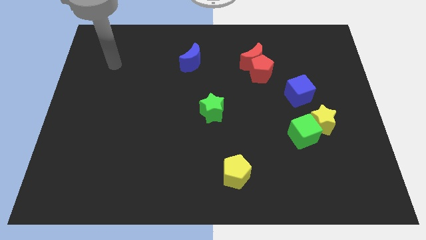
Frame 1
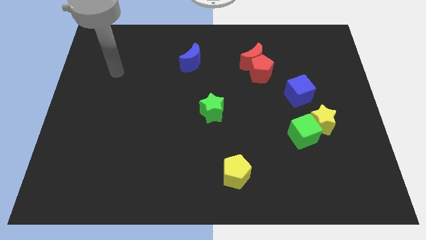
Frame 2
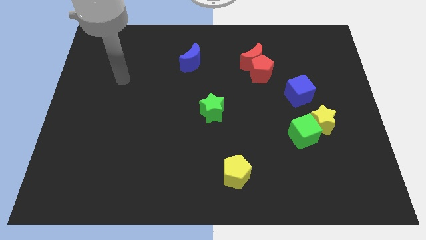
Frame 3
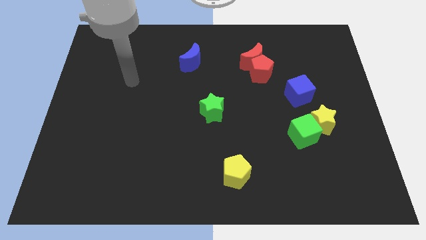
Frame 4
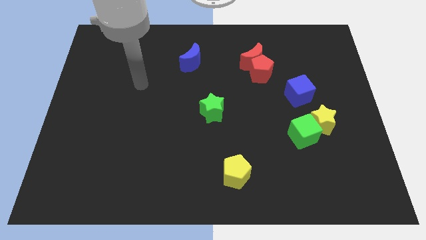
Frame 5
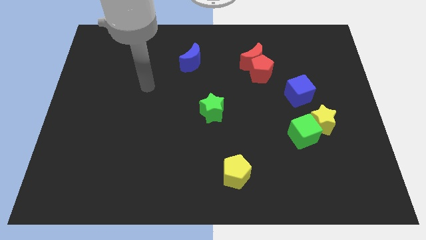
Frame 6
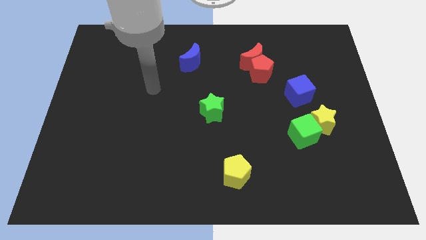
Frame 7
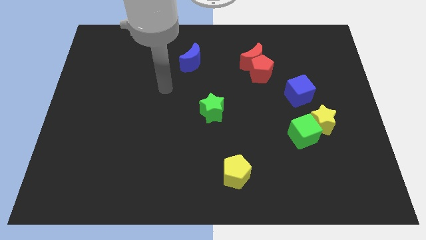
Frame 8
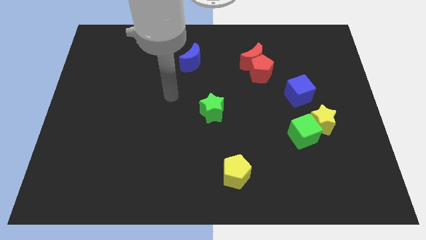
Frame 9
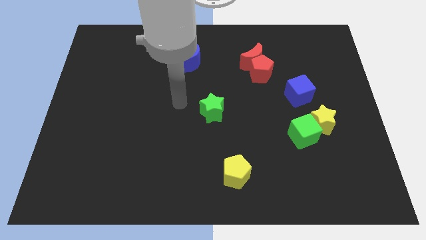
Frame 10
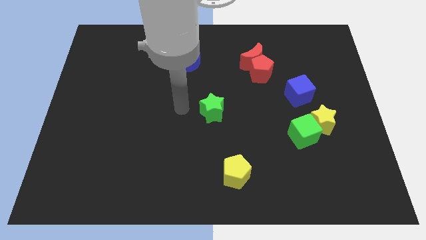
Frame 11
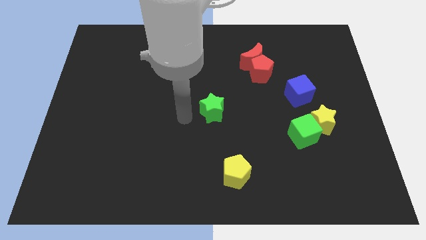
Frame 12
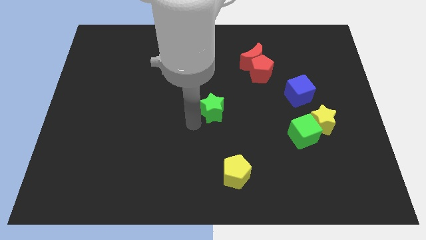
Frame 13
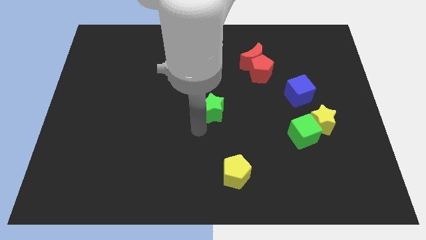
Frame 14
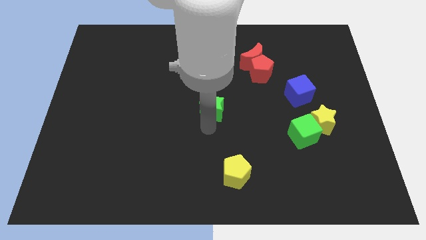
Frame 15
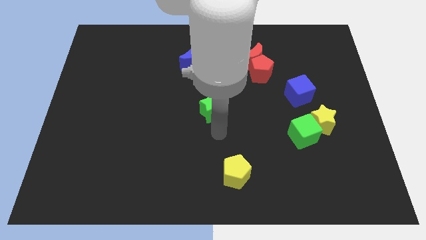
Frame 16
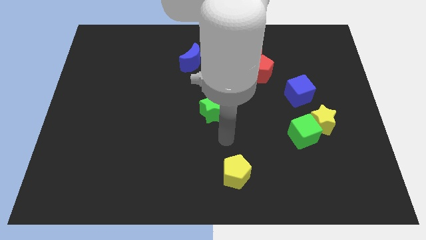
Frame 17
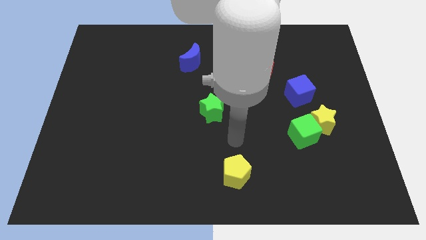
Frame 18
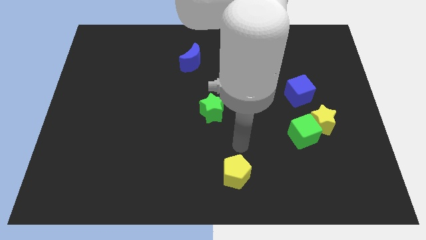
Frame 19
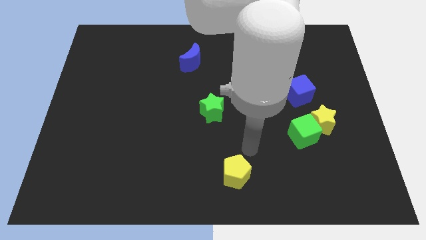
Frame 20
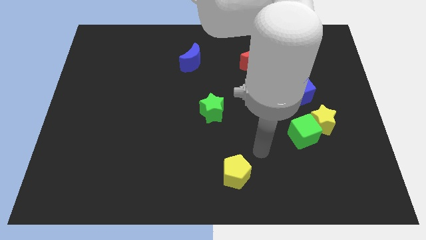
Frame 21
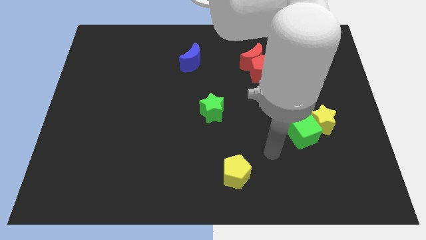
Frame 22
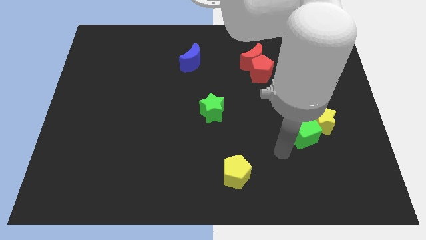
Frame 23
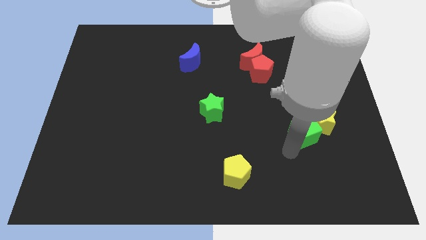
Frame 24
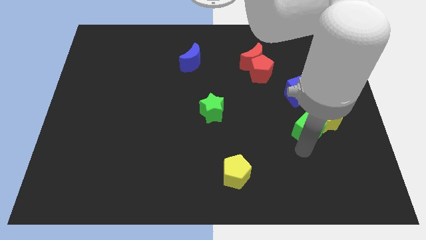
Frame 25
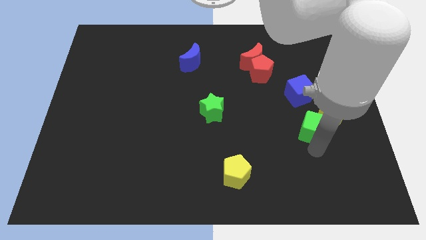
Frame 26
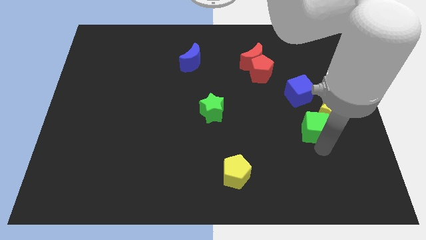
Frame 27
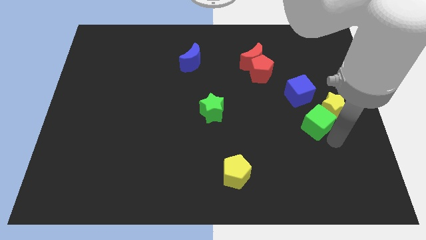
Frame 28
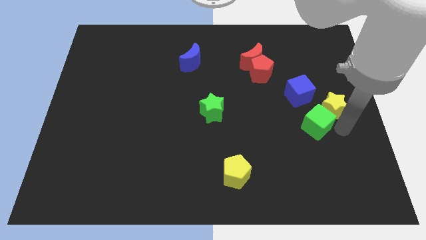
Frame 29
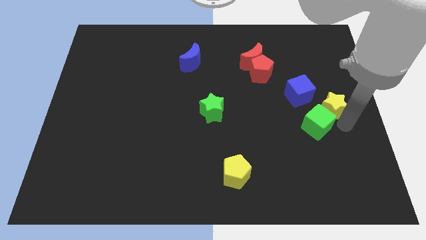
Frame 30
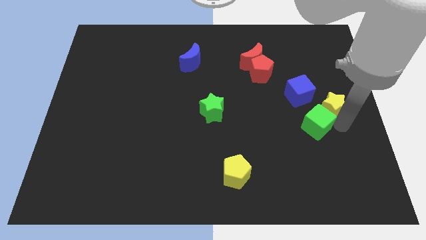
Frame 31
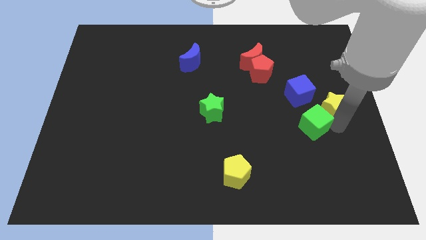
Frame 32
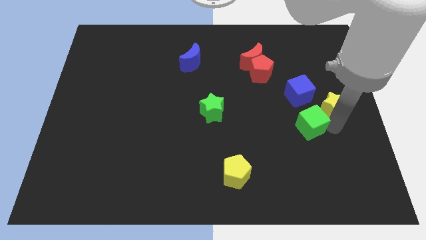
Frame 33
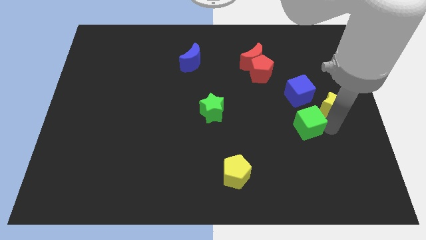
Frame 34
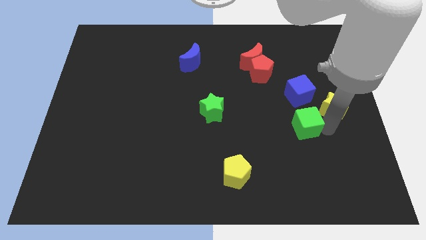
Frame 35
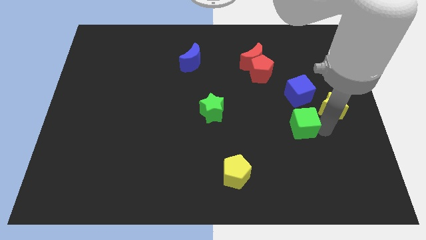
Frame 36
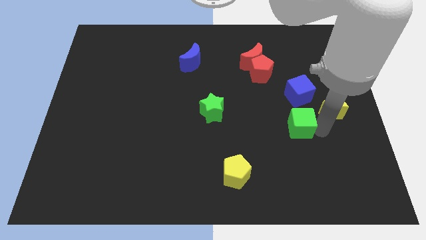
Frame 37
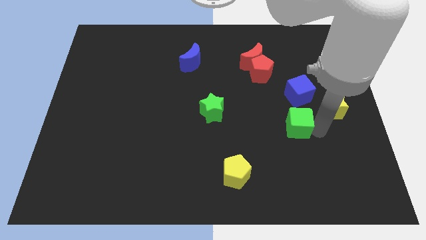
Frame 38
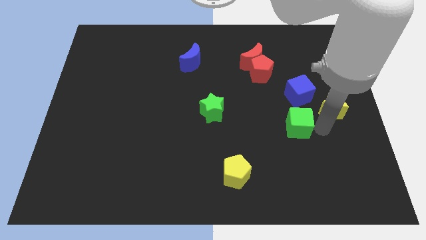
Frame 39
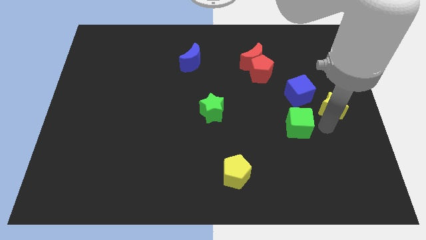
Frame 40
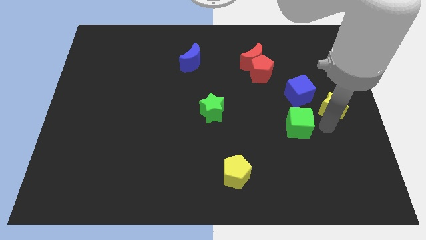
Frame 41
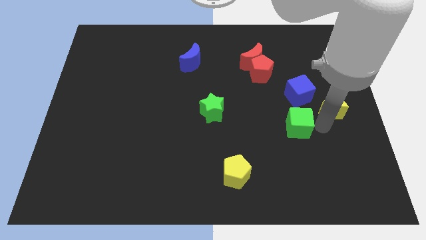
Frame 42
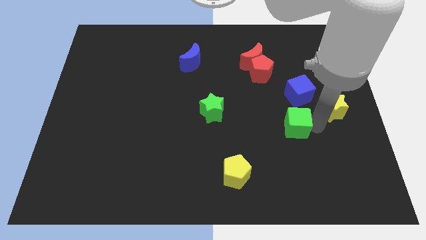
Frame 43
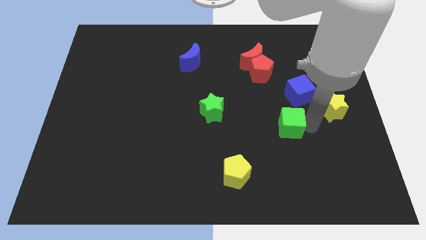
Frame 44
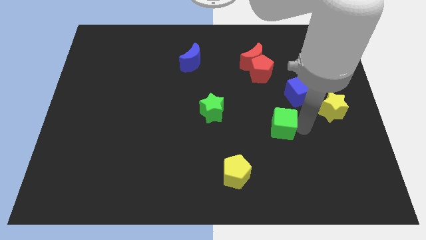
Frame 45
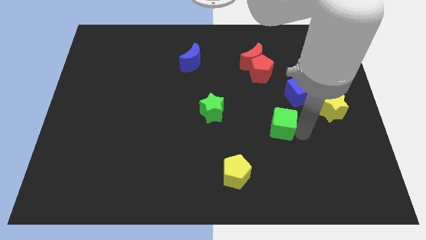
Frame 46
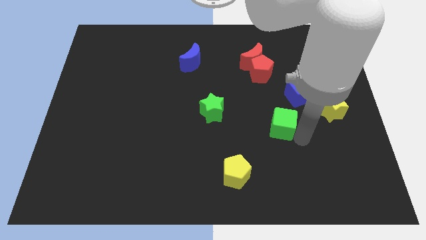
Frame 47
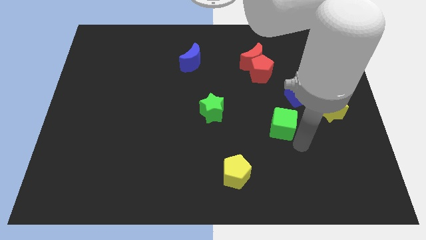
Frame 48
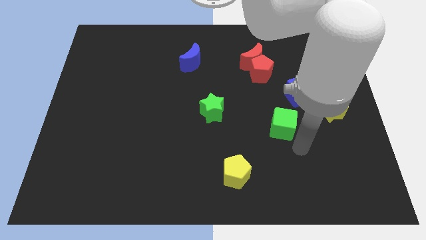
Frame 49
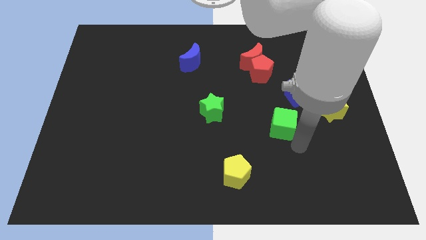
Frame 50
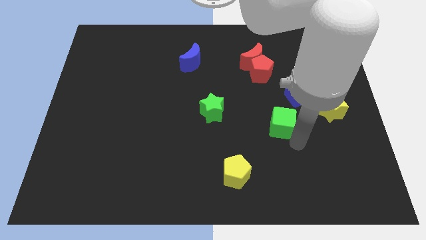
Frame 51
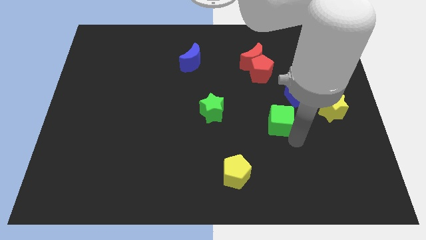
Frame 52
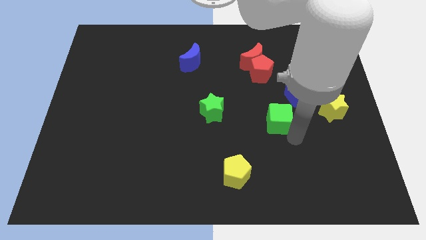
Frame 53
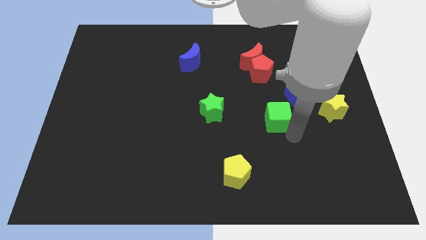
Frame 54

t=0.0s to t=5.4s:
slightly move the green cube upwards and then to the left

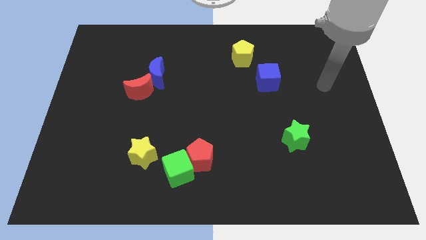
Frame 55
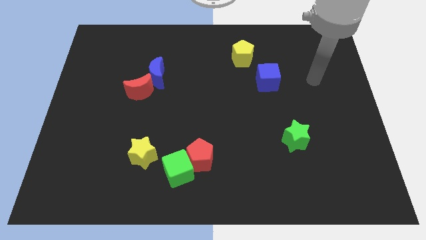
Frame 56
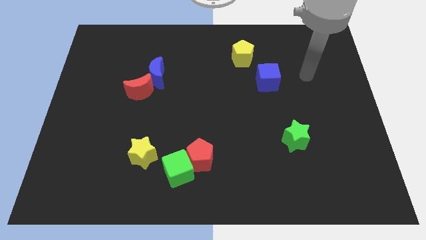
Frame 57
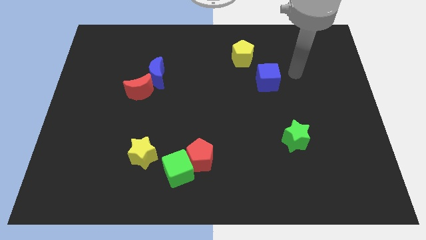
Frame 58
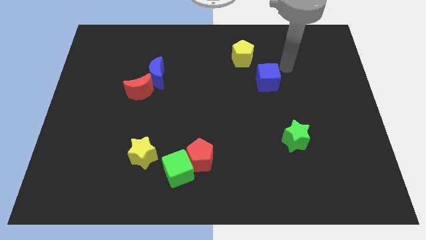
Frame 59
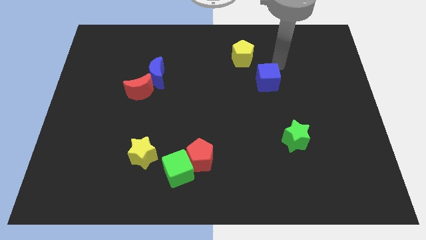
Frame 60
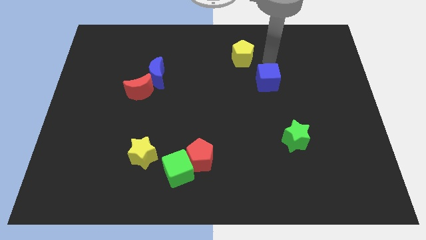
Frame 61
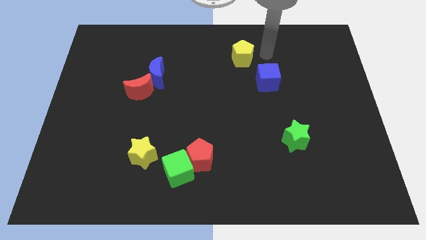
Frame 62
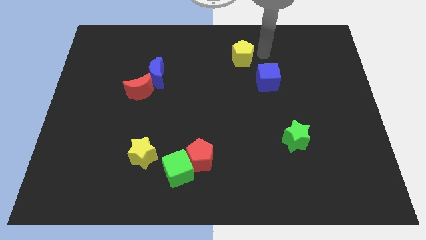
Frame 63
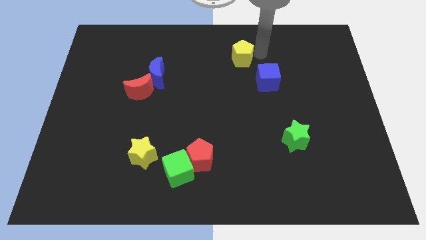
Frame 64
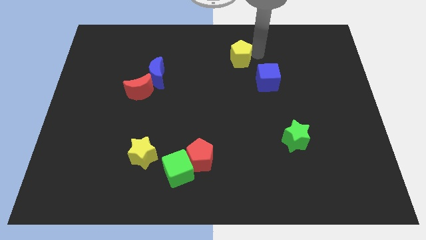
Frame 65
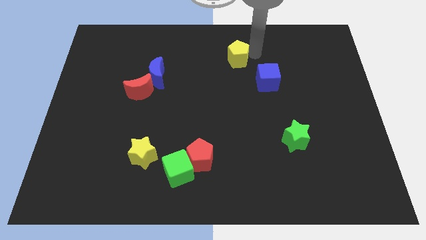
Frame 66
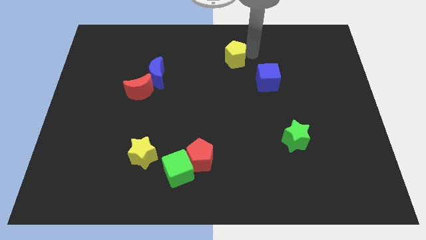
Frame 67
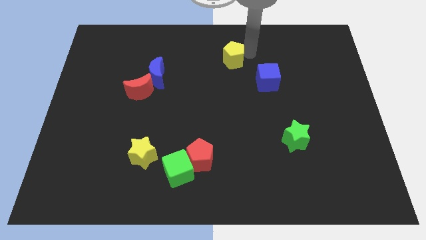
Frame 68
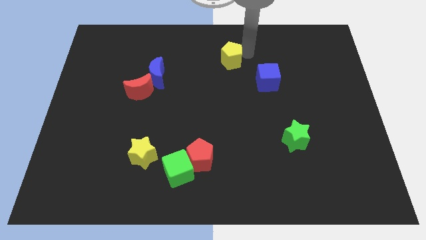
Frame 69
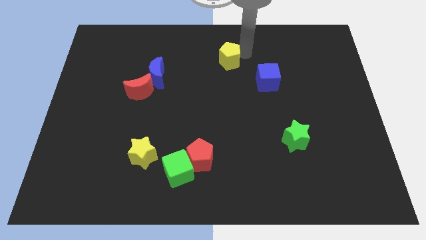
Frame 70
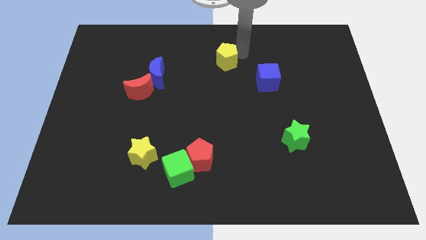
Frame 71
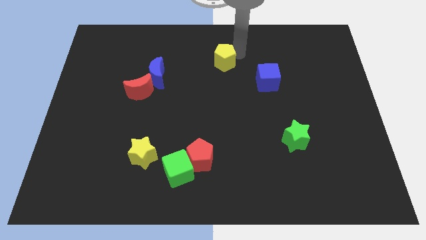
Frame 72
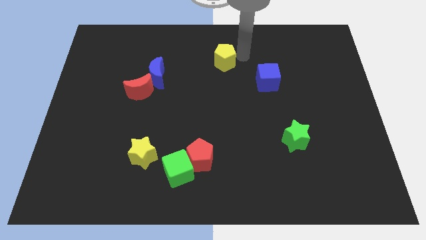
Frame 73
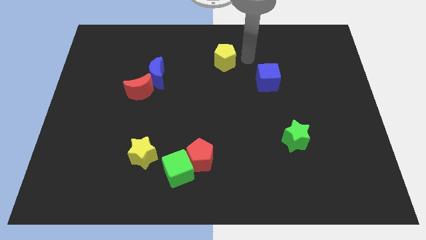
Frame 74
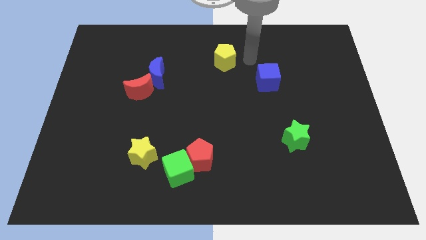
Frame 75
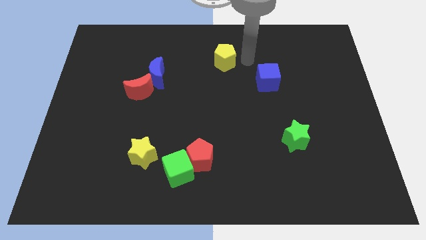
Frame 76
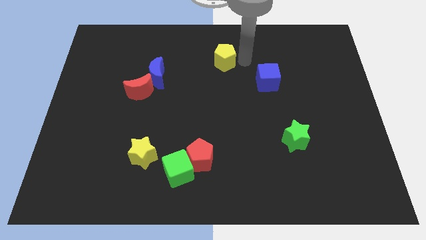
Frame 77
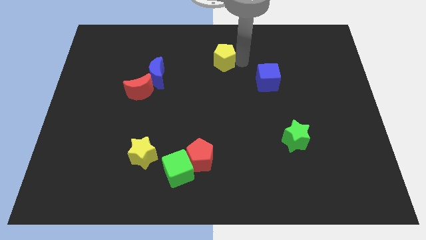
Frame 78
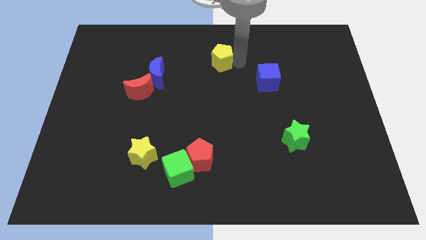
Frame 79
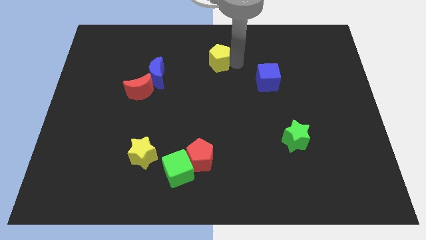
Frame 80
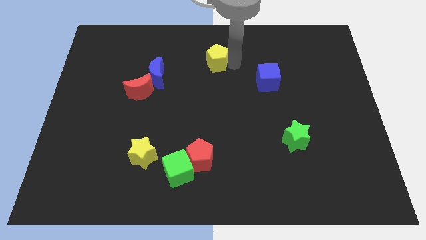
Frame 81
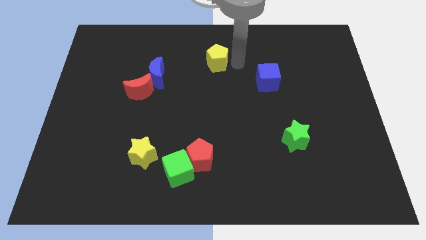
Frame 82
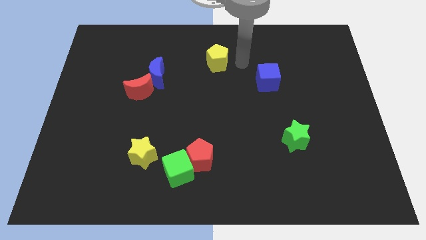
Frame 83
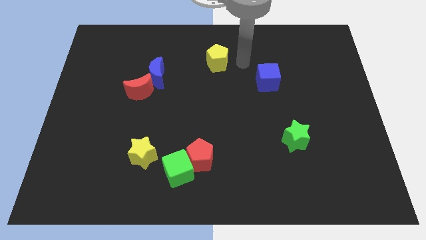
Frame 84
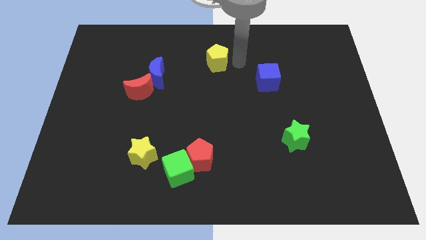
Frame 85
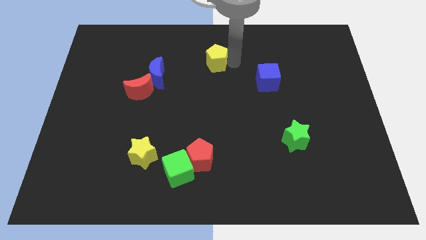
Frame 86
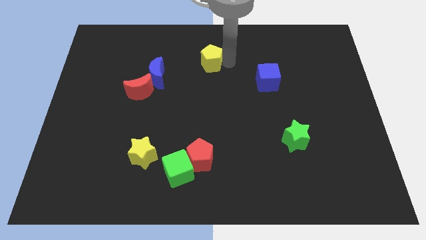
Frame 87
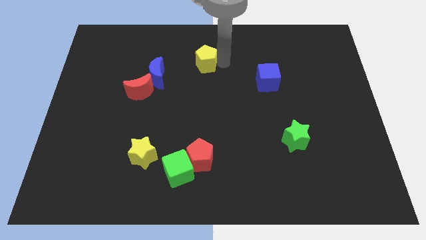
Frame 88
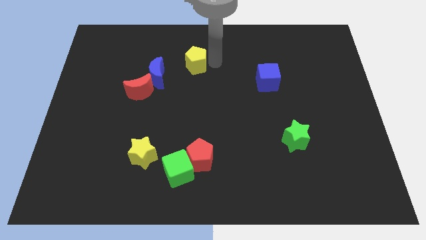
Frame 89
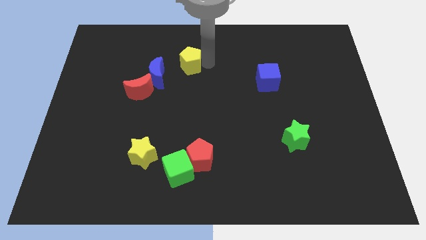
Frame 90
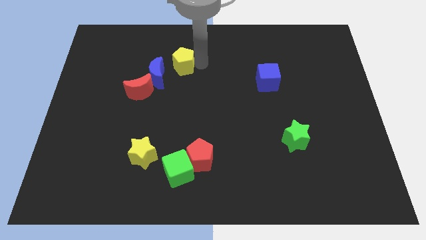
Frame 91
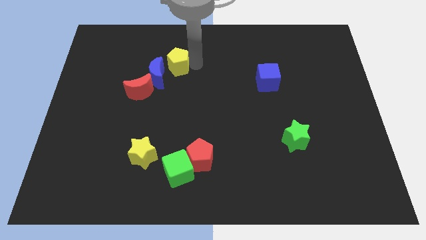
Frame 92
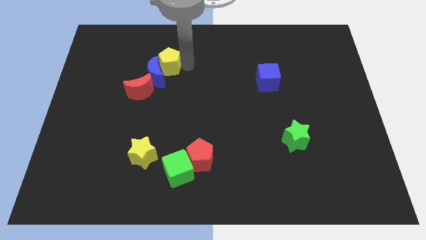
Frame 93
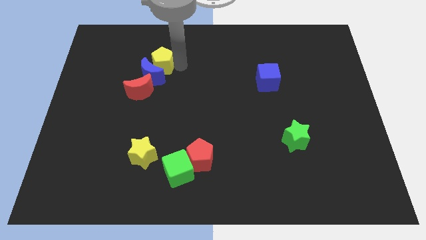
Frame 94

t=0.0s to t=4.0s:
push the yellow pentagon left
